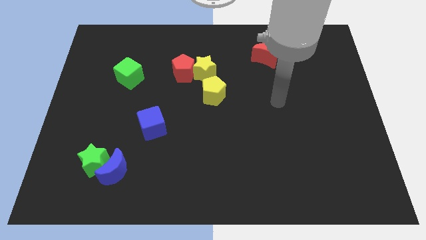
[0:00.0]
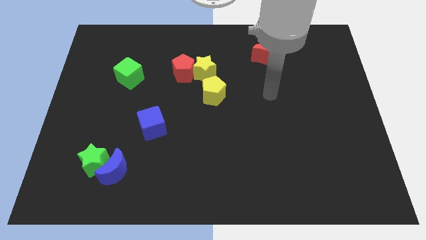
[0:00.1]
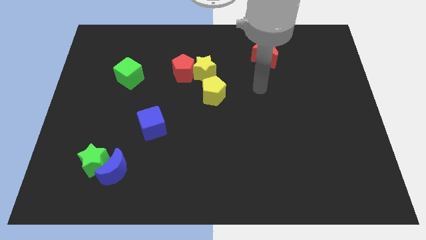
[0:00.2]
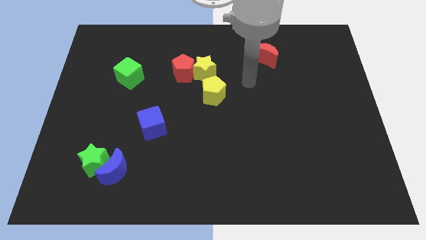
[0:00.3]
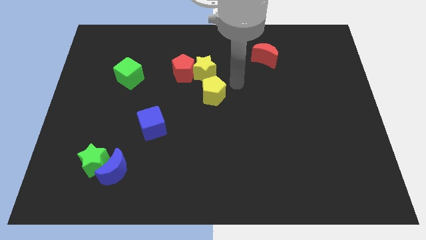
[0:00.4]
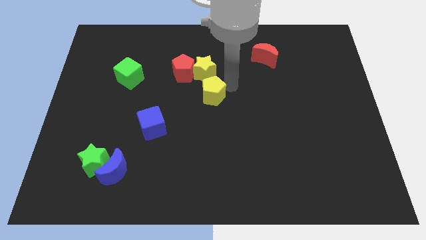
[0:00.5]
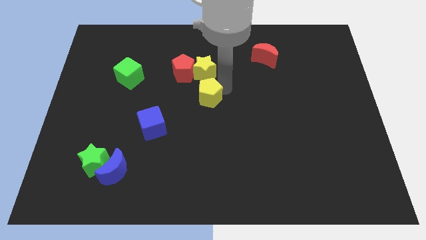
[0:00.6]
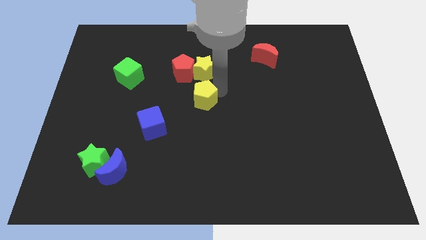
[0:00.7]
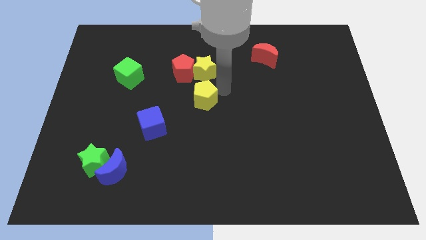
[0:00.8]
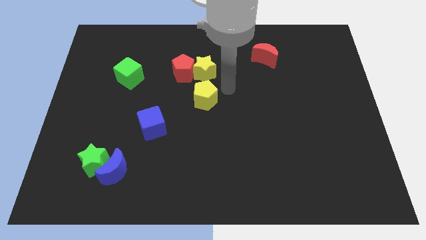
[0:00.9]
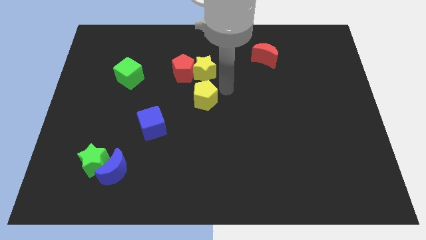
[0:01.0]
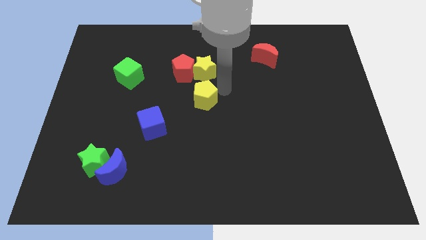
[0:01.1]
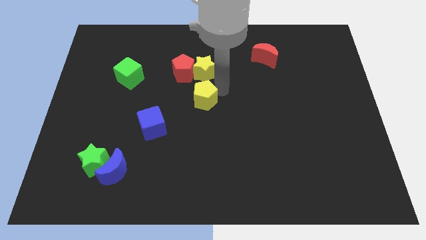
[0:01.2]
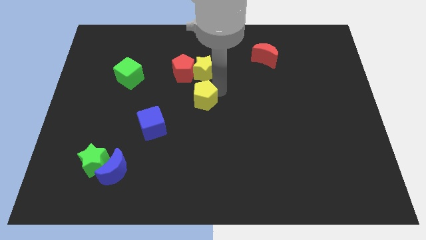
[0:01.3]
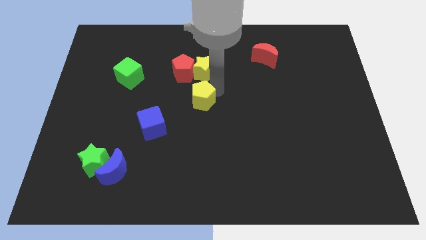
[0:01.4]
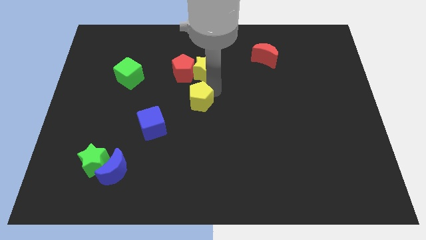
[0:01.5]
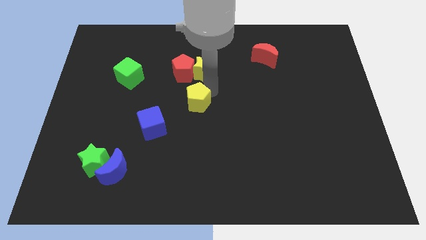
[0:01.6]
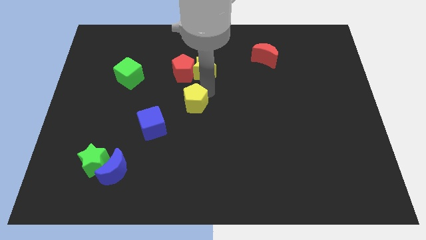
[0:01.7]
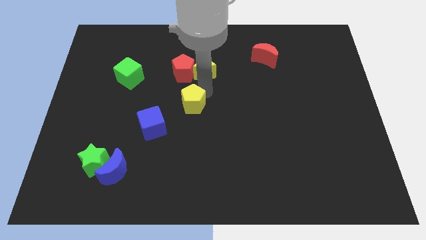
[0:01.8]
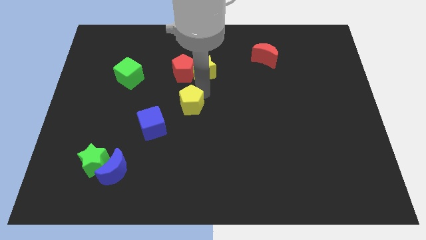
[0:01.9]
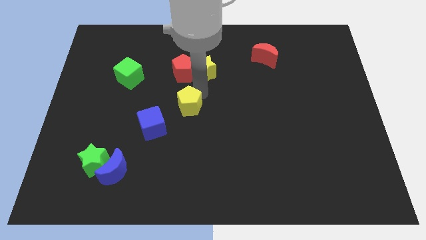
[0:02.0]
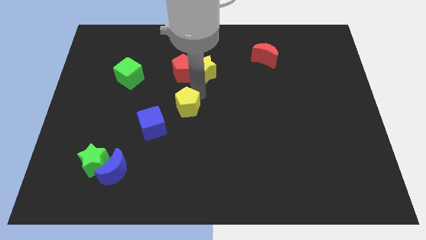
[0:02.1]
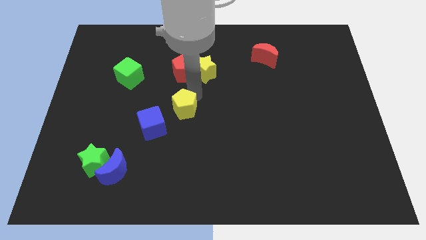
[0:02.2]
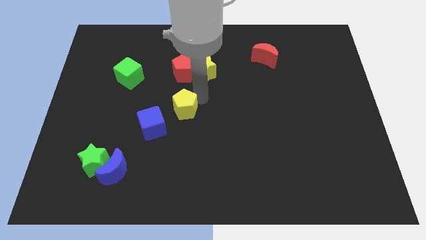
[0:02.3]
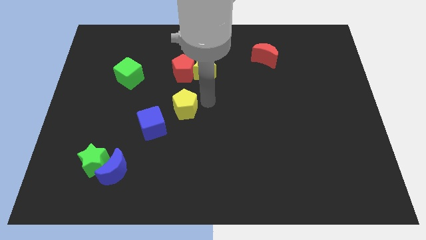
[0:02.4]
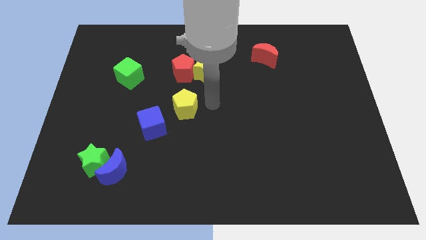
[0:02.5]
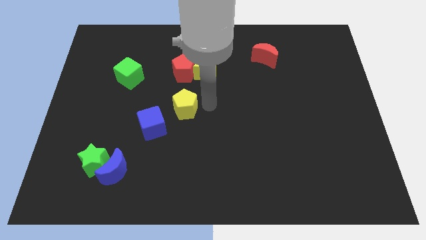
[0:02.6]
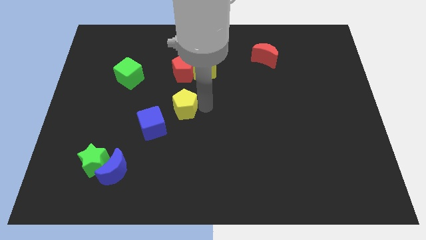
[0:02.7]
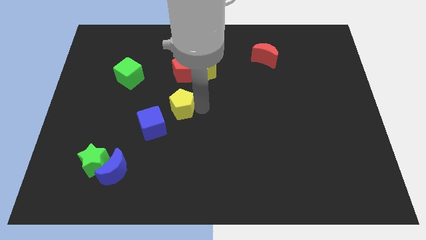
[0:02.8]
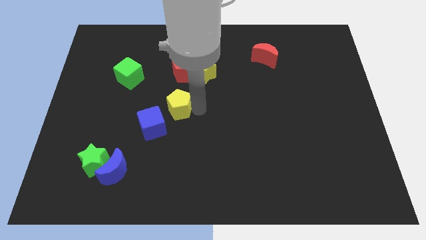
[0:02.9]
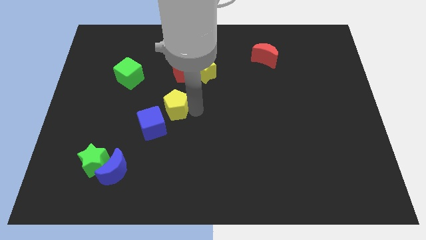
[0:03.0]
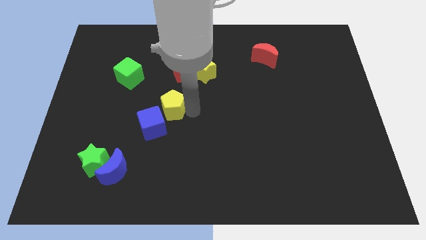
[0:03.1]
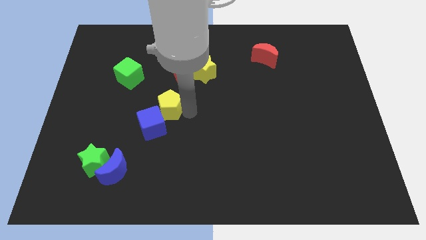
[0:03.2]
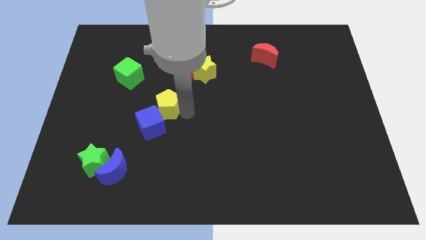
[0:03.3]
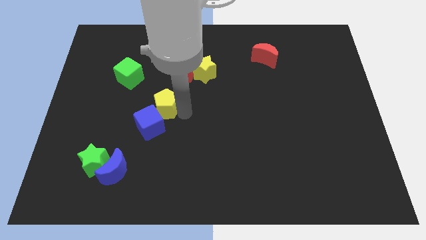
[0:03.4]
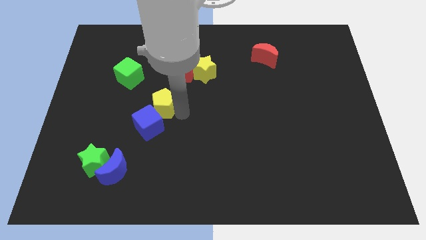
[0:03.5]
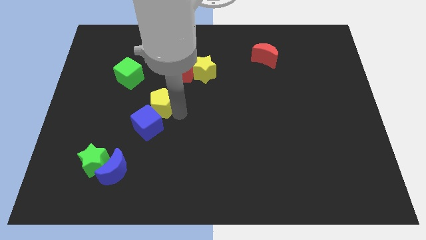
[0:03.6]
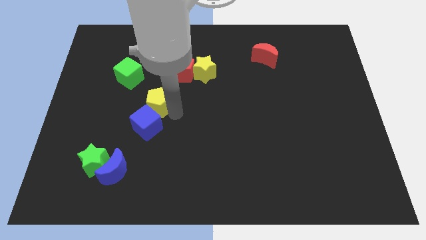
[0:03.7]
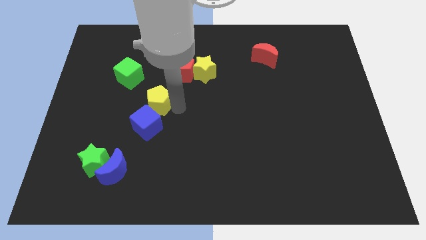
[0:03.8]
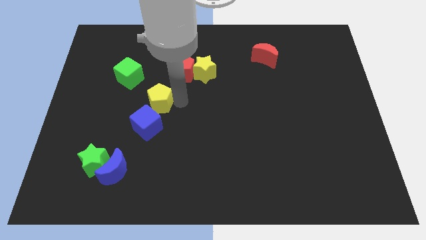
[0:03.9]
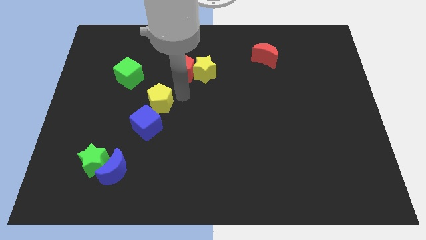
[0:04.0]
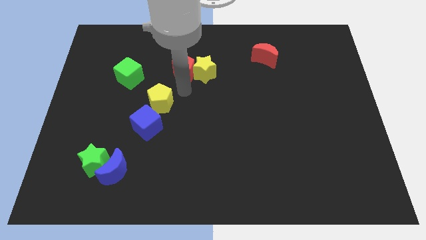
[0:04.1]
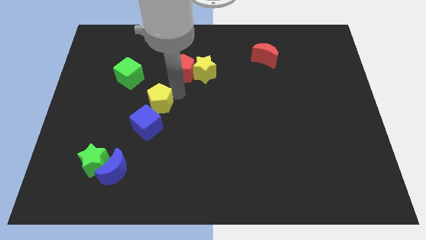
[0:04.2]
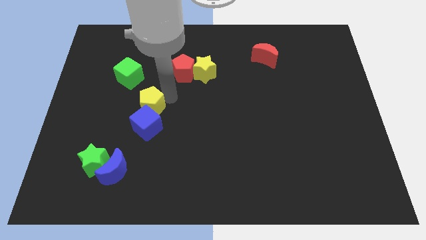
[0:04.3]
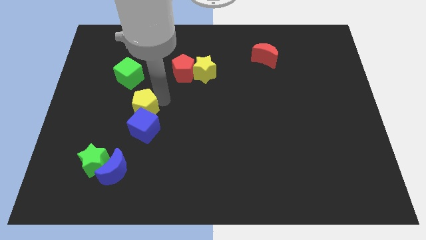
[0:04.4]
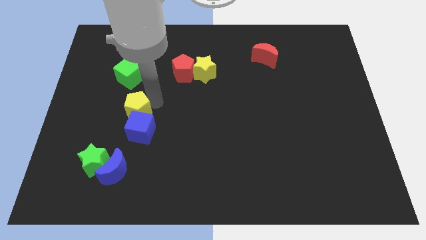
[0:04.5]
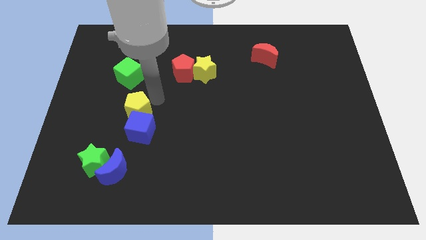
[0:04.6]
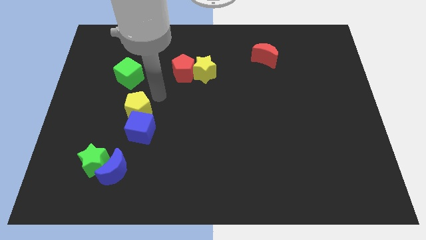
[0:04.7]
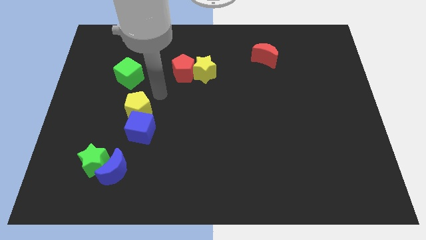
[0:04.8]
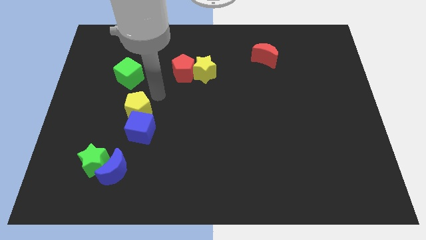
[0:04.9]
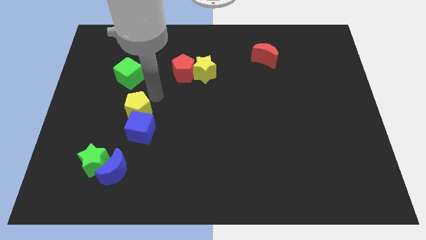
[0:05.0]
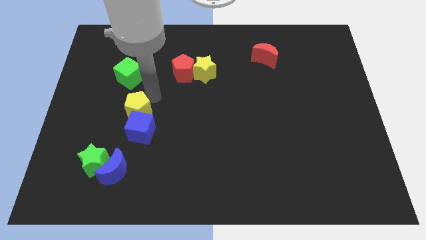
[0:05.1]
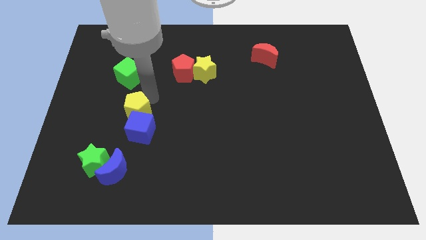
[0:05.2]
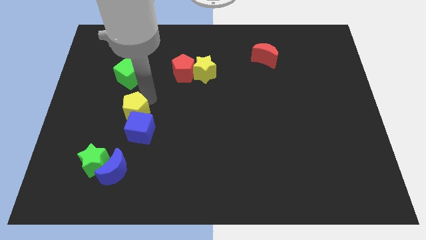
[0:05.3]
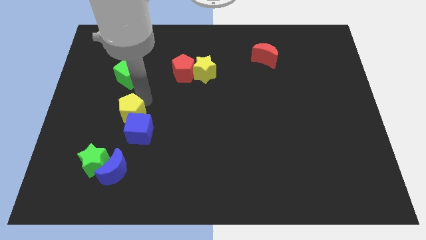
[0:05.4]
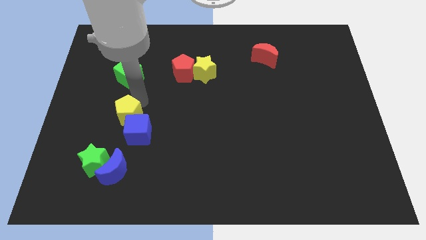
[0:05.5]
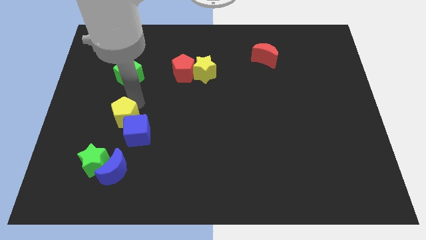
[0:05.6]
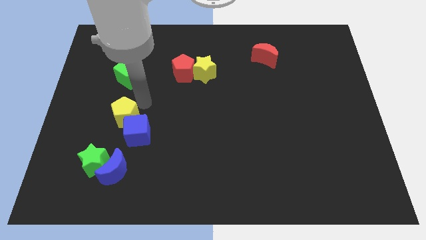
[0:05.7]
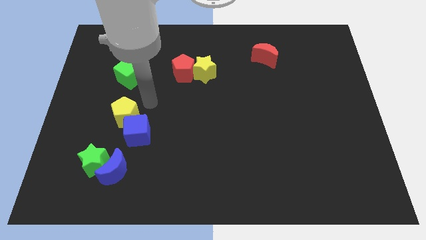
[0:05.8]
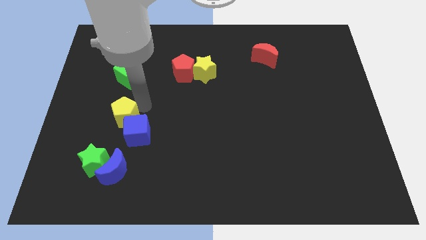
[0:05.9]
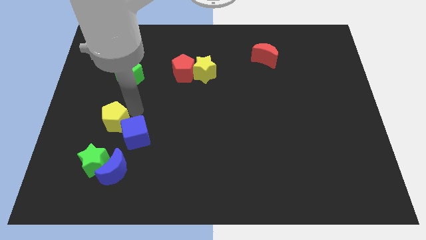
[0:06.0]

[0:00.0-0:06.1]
push the yellow pentagon left of the blue cube

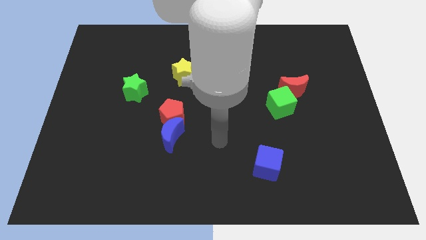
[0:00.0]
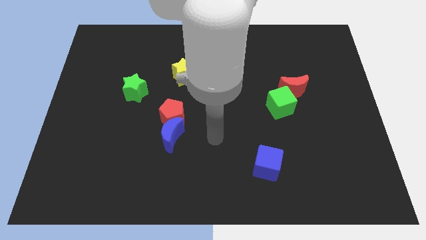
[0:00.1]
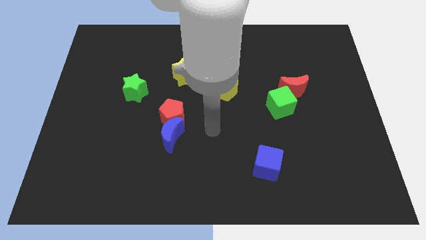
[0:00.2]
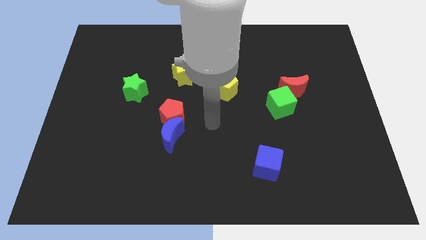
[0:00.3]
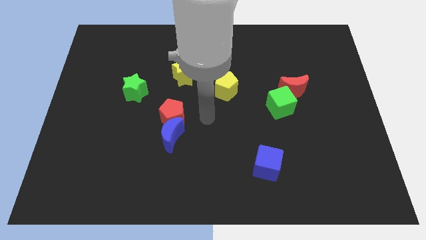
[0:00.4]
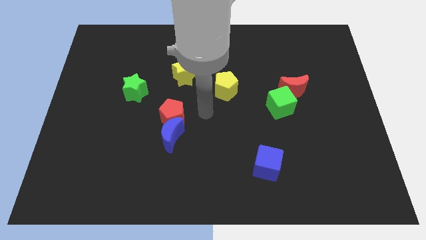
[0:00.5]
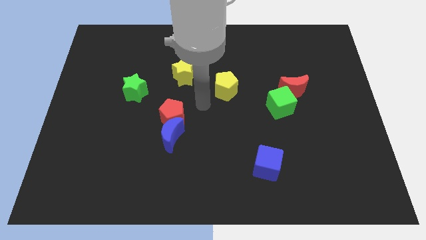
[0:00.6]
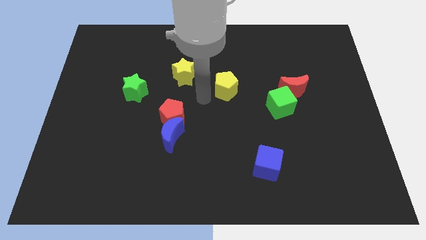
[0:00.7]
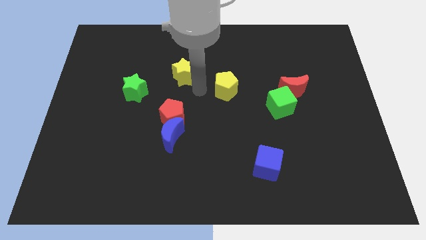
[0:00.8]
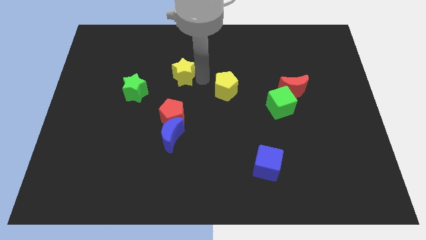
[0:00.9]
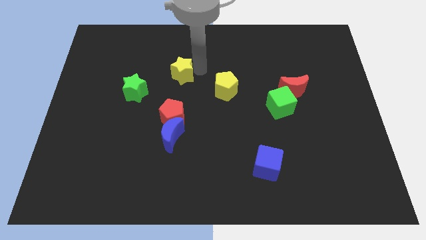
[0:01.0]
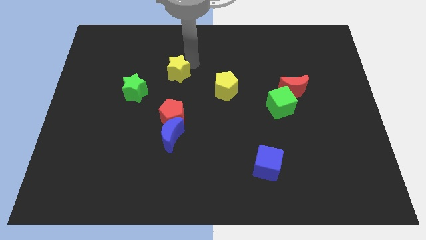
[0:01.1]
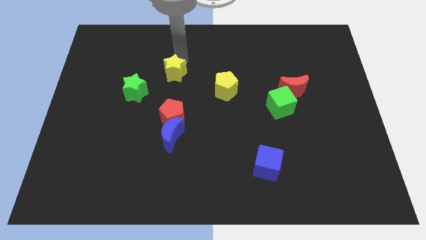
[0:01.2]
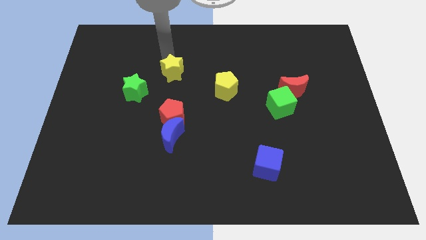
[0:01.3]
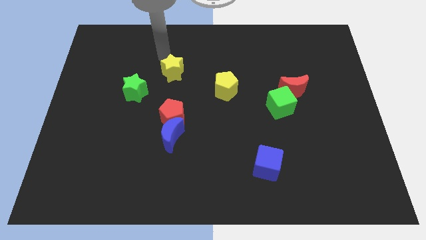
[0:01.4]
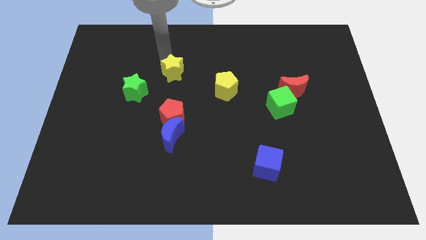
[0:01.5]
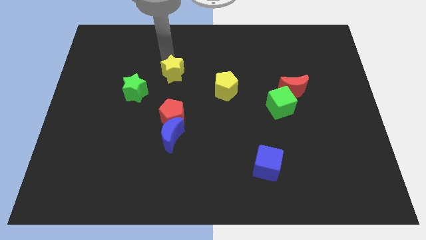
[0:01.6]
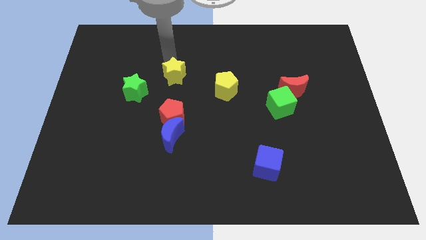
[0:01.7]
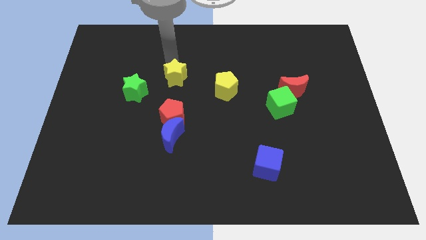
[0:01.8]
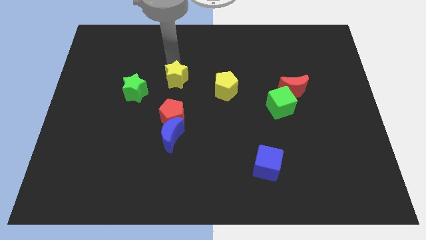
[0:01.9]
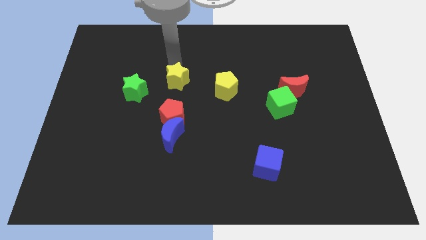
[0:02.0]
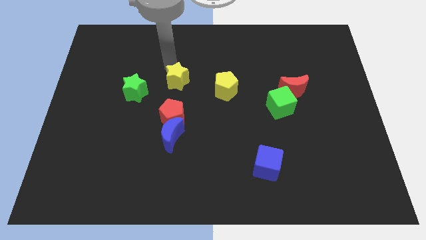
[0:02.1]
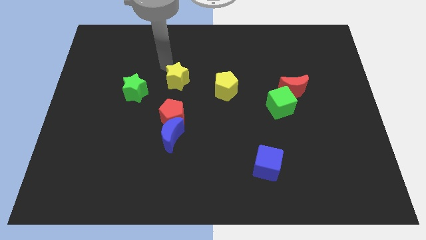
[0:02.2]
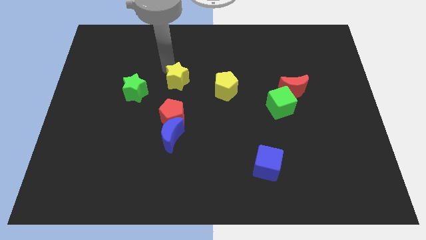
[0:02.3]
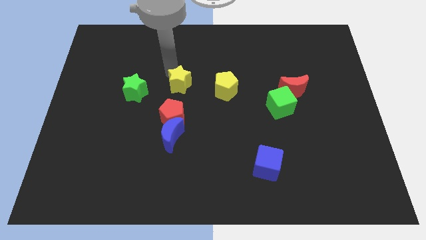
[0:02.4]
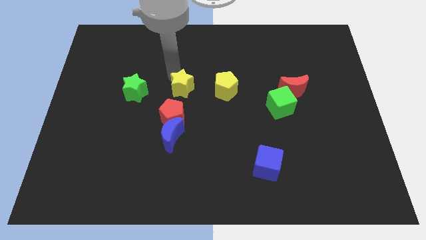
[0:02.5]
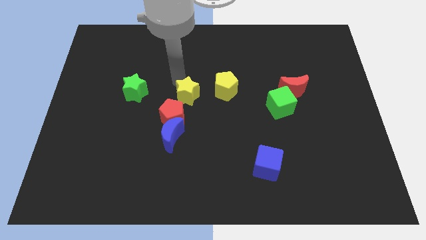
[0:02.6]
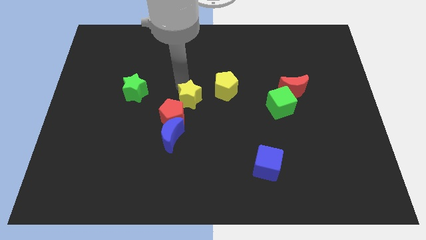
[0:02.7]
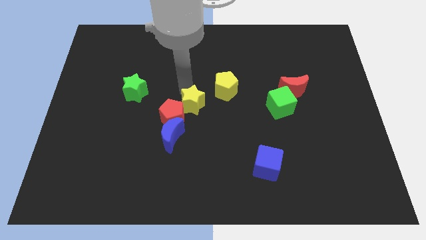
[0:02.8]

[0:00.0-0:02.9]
push the yellow star diagonally up and to the right of the blue moon
